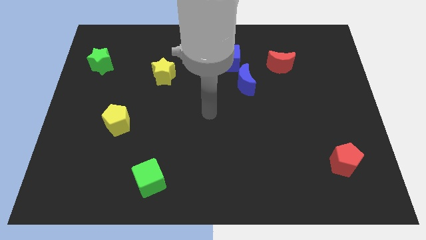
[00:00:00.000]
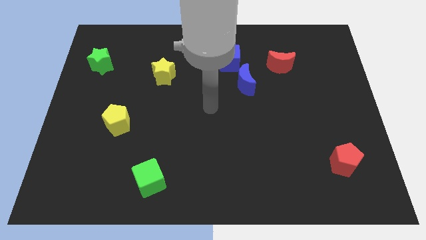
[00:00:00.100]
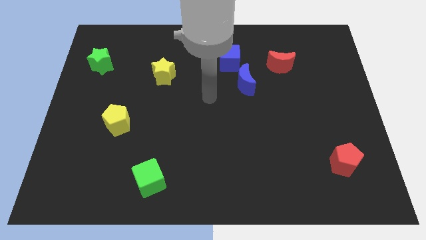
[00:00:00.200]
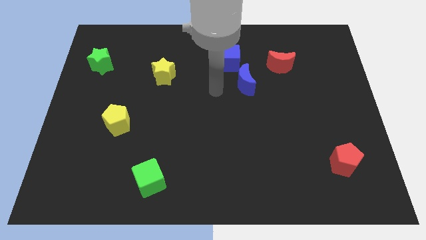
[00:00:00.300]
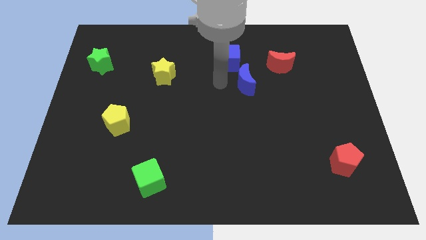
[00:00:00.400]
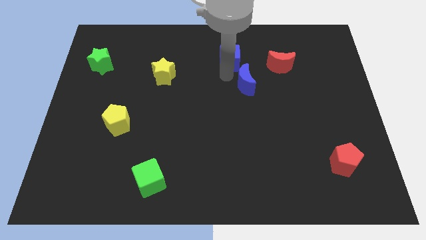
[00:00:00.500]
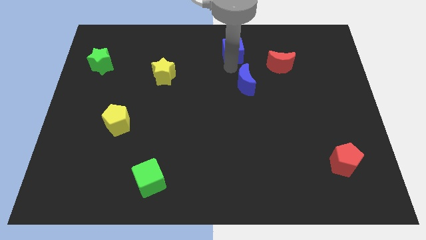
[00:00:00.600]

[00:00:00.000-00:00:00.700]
pull the blue moon apart from the blue cube

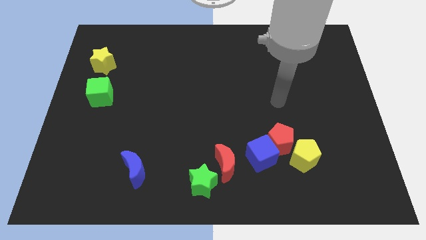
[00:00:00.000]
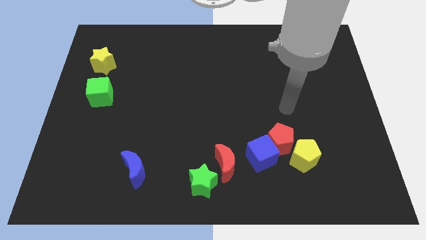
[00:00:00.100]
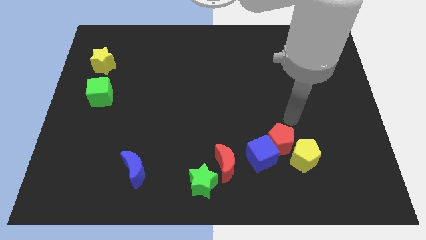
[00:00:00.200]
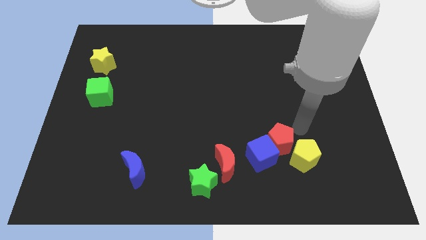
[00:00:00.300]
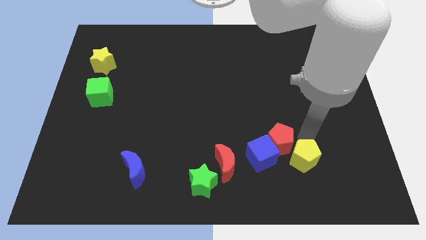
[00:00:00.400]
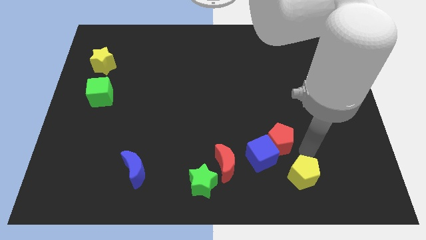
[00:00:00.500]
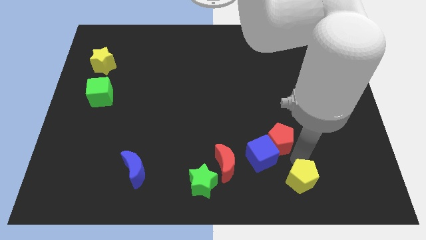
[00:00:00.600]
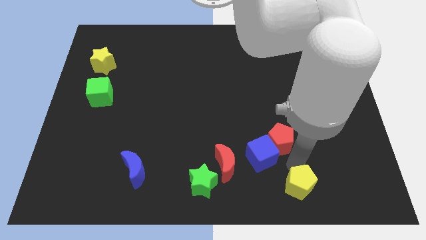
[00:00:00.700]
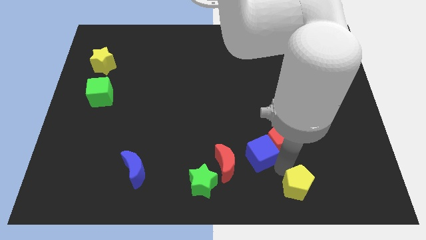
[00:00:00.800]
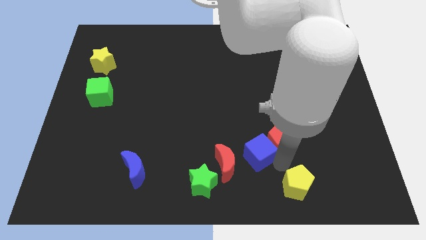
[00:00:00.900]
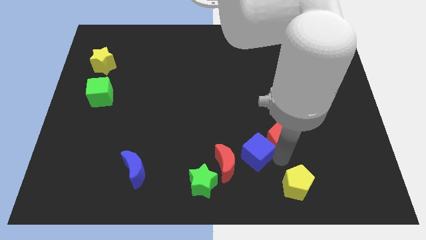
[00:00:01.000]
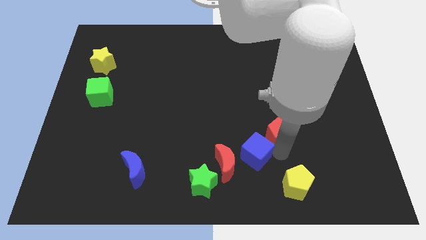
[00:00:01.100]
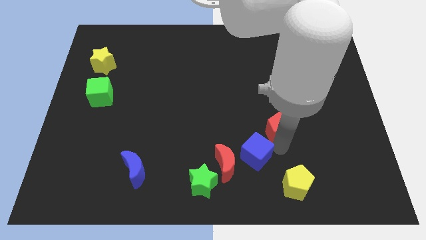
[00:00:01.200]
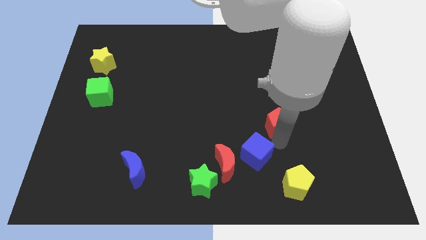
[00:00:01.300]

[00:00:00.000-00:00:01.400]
separate the red pentagon from the blue cube and yellow pentagon

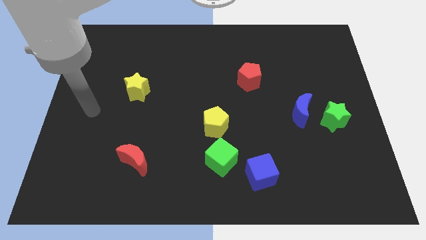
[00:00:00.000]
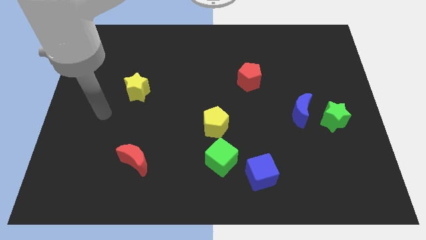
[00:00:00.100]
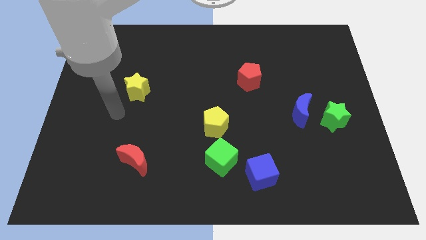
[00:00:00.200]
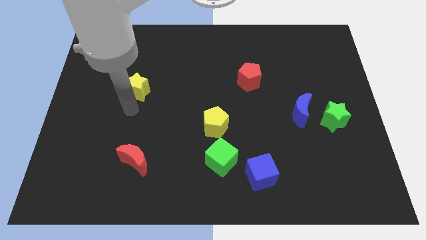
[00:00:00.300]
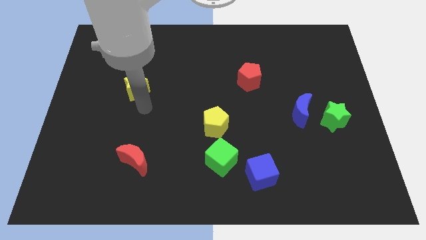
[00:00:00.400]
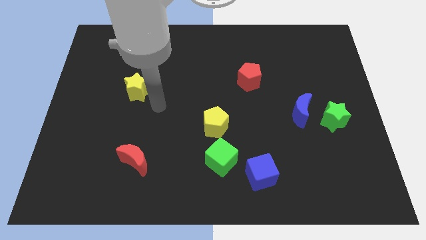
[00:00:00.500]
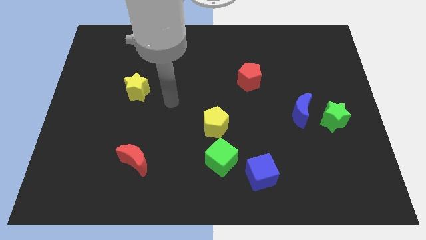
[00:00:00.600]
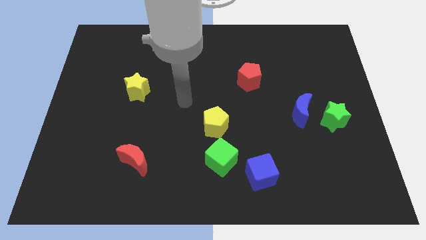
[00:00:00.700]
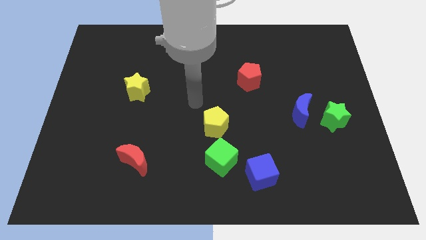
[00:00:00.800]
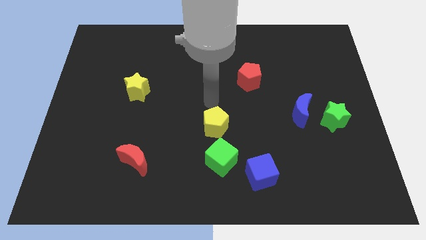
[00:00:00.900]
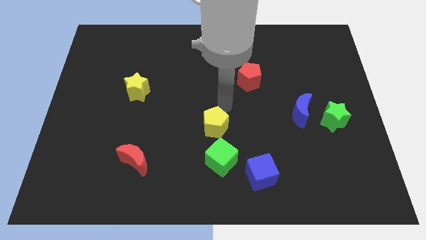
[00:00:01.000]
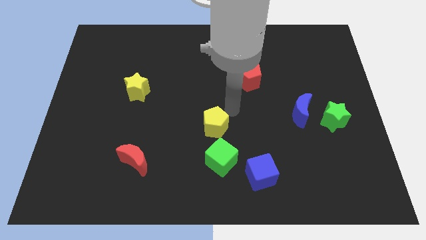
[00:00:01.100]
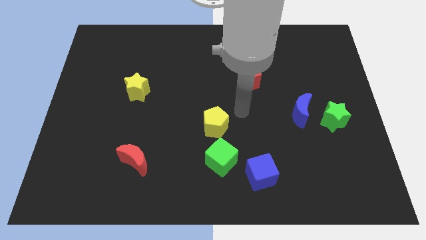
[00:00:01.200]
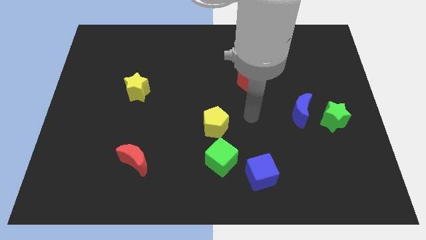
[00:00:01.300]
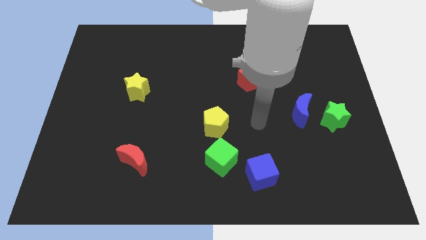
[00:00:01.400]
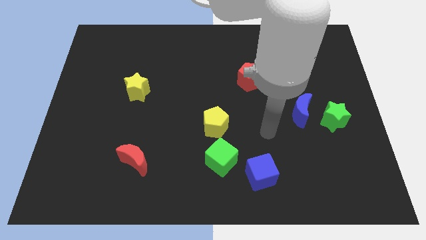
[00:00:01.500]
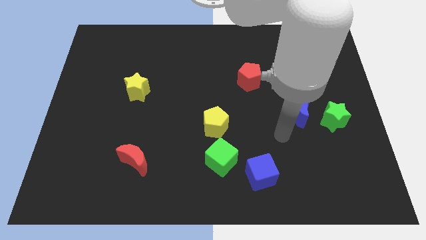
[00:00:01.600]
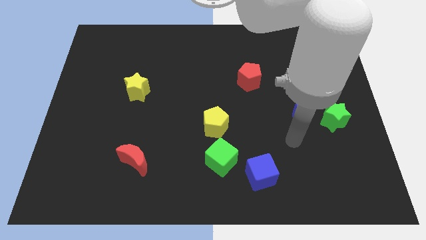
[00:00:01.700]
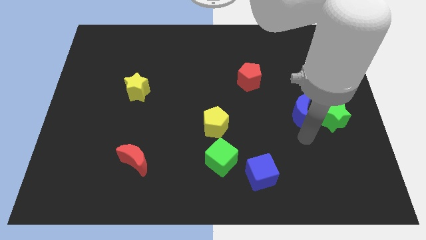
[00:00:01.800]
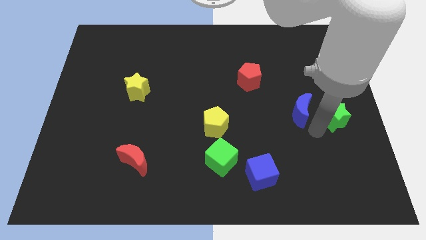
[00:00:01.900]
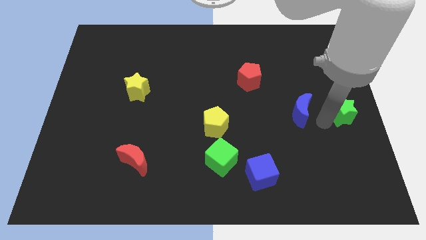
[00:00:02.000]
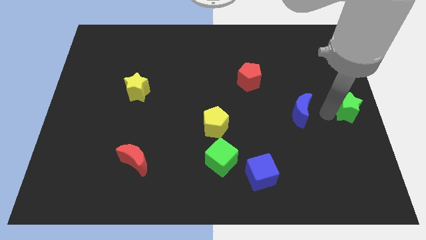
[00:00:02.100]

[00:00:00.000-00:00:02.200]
pull the blue moon apart from the green star

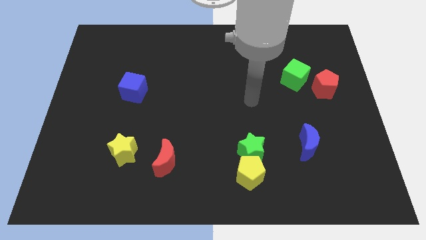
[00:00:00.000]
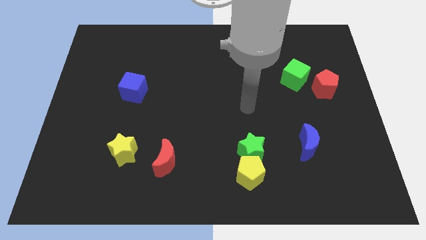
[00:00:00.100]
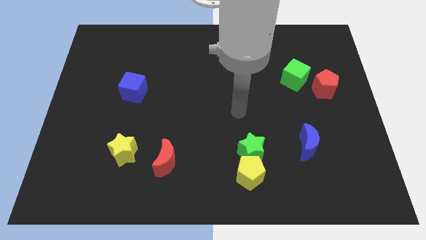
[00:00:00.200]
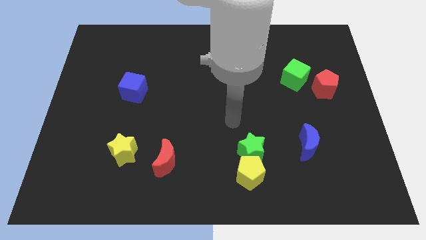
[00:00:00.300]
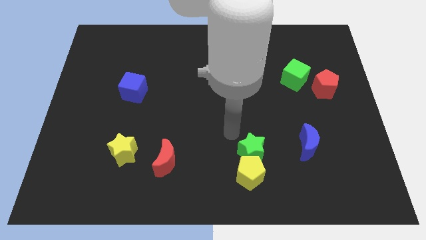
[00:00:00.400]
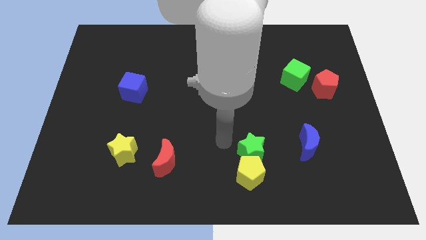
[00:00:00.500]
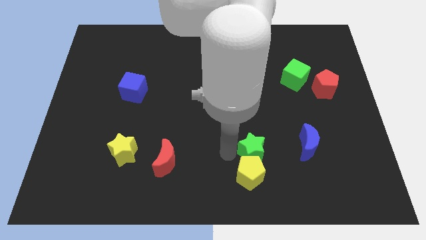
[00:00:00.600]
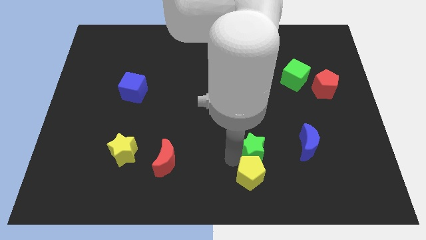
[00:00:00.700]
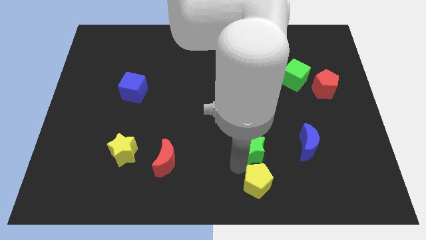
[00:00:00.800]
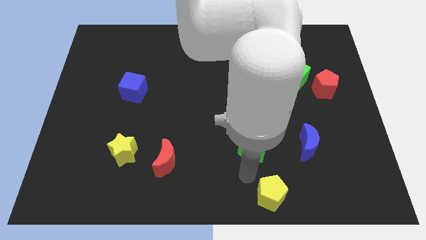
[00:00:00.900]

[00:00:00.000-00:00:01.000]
pull the green star apart from the yellow pentagon

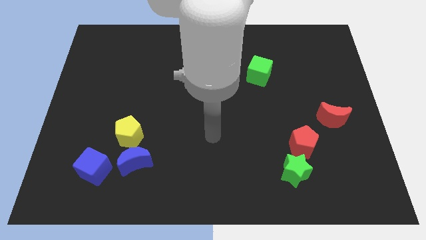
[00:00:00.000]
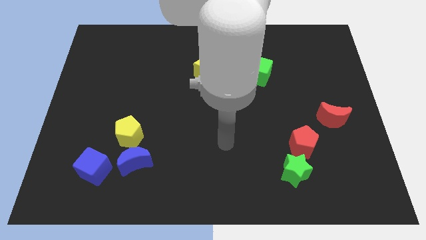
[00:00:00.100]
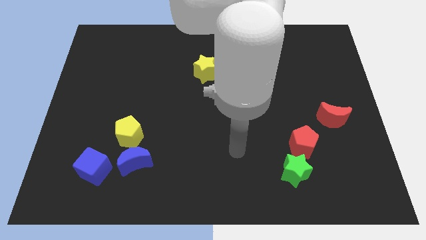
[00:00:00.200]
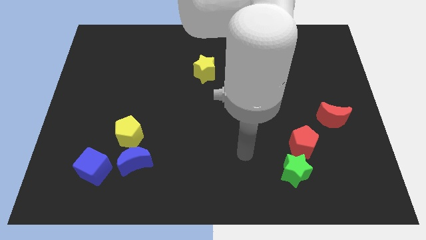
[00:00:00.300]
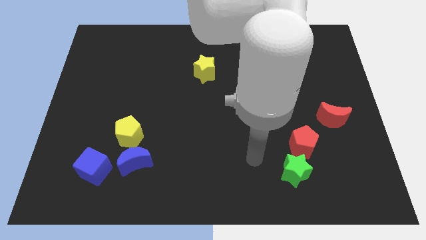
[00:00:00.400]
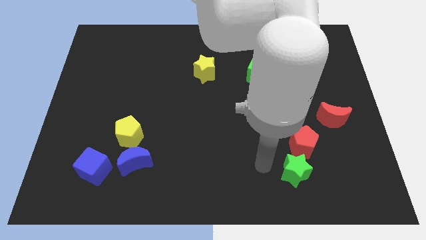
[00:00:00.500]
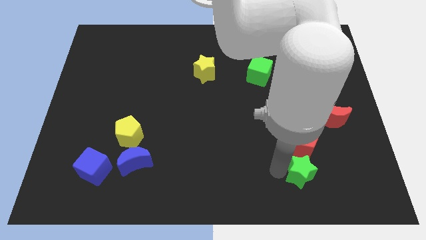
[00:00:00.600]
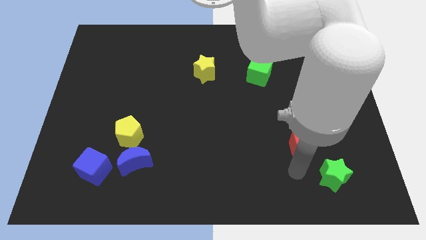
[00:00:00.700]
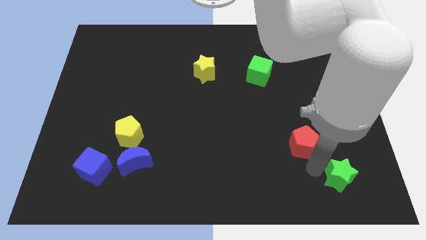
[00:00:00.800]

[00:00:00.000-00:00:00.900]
separate the red pentagon from the green star

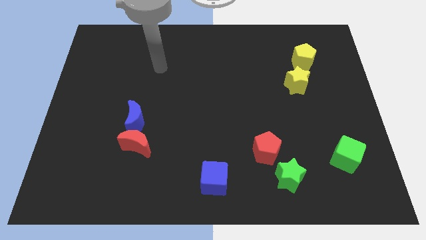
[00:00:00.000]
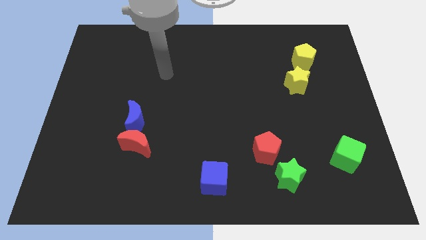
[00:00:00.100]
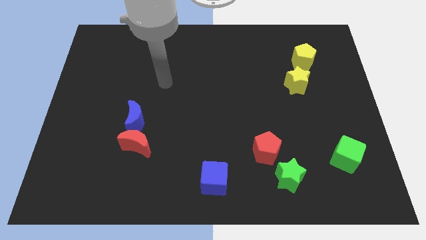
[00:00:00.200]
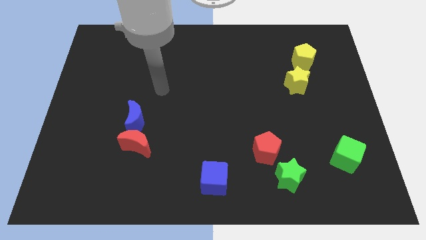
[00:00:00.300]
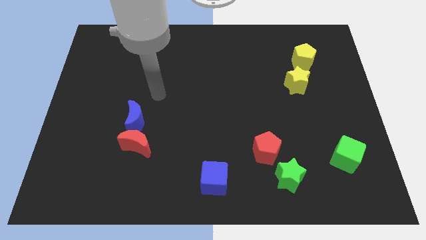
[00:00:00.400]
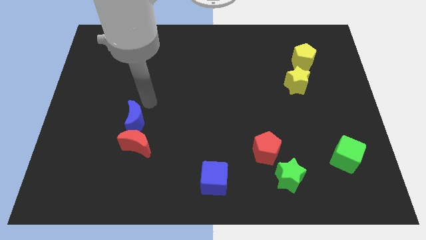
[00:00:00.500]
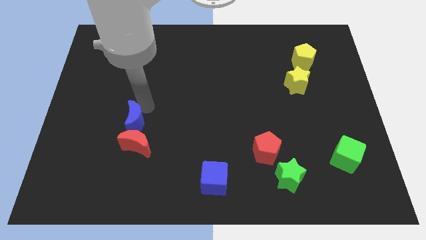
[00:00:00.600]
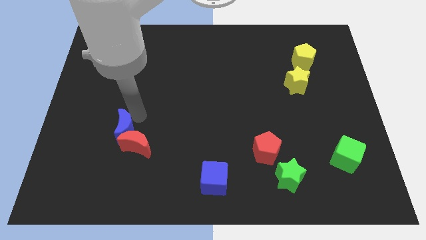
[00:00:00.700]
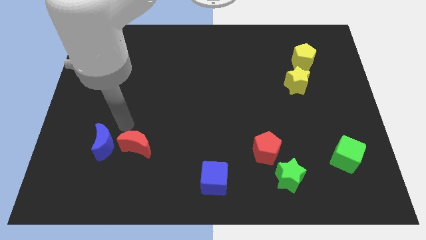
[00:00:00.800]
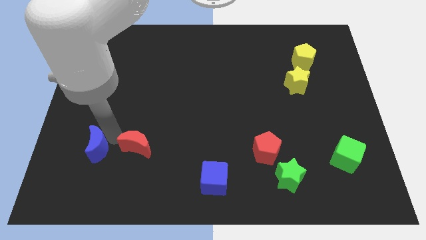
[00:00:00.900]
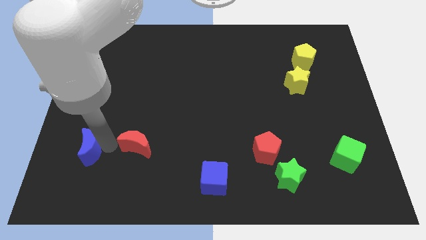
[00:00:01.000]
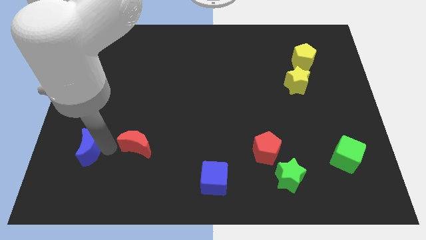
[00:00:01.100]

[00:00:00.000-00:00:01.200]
separate the red moon from the blue moon

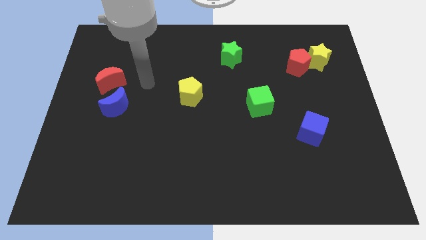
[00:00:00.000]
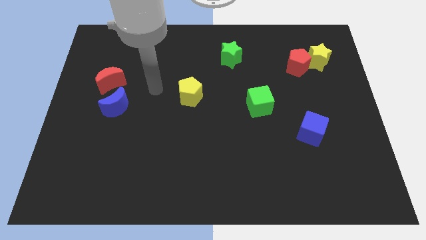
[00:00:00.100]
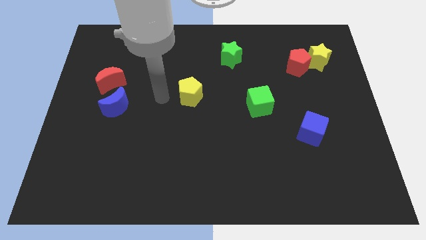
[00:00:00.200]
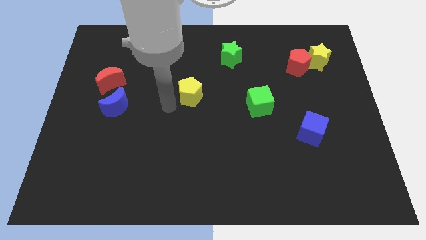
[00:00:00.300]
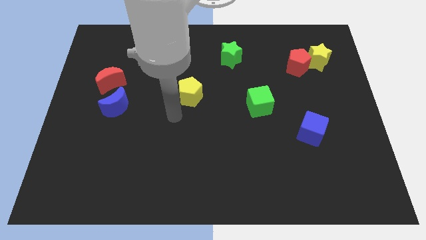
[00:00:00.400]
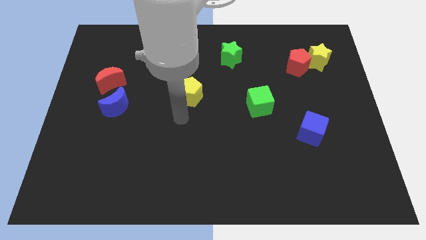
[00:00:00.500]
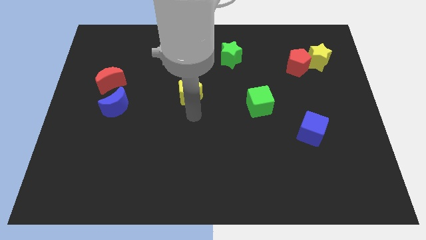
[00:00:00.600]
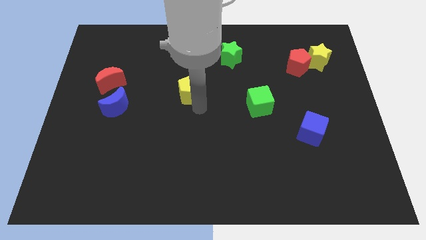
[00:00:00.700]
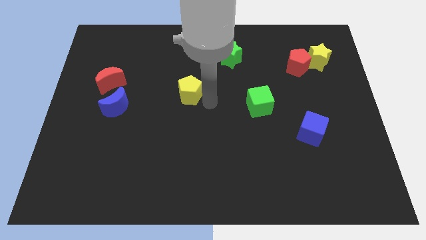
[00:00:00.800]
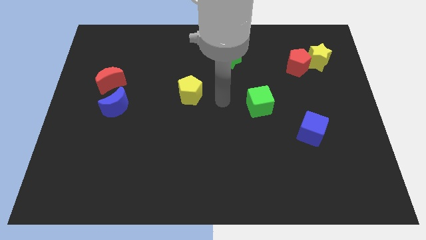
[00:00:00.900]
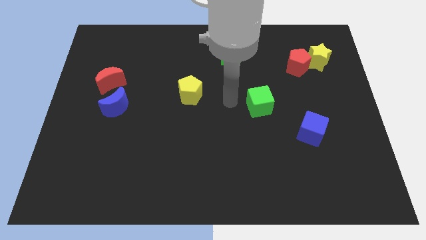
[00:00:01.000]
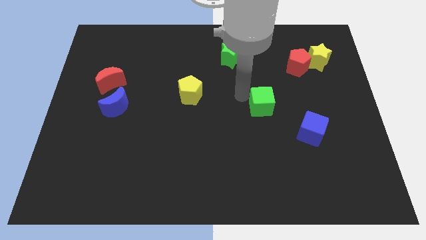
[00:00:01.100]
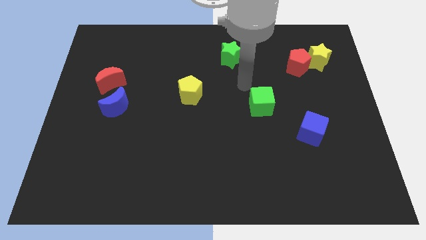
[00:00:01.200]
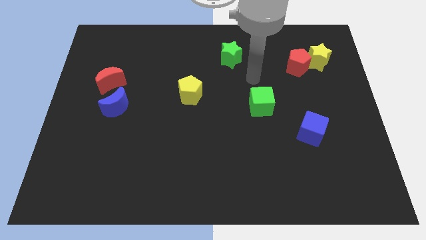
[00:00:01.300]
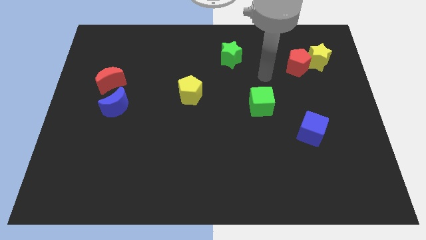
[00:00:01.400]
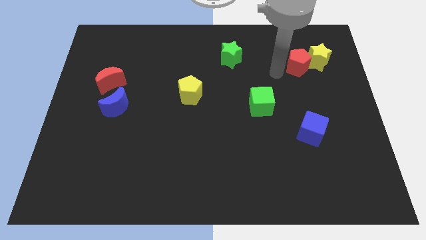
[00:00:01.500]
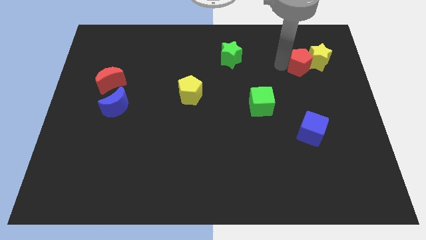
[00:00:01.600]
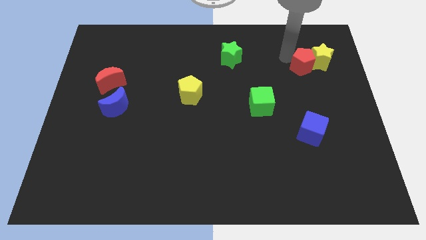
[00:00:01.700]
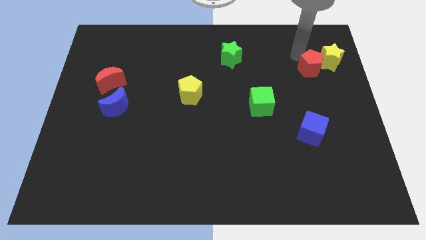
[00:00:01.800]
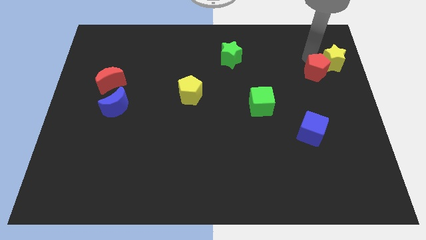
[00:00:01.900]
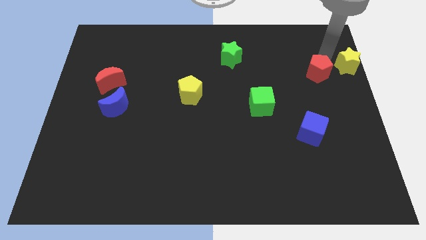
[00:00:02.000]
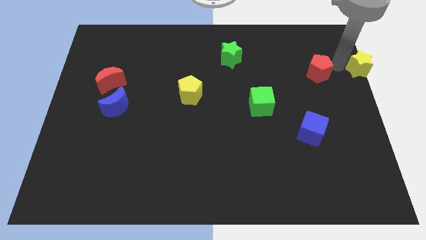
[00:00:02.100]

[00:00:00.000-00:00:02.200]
move the red pentagon away from the yellow star
